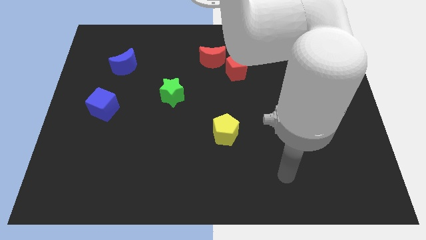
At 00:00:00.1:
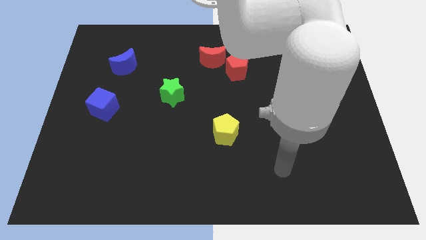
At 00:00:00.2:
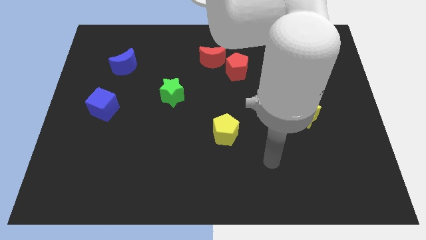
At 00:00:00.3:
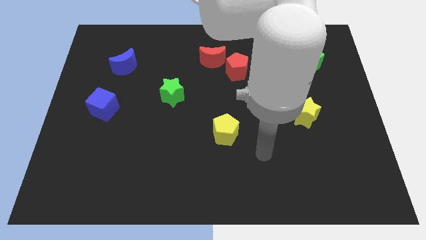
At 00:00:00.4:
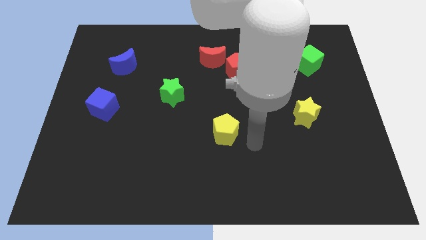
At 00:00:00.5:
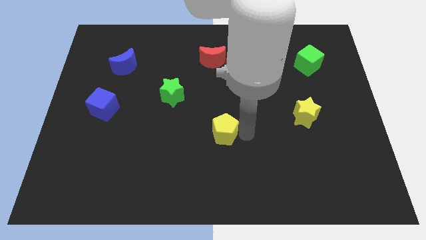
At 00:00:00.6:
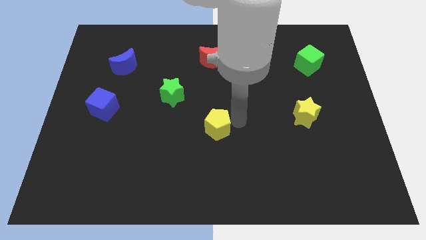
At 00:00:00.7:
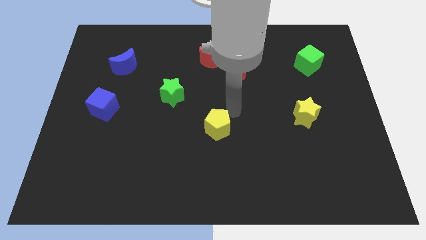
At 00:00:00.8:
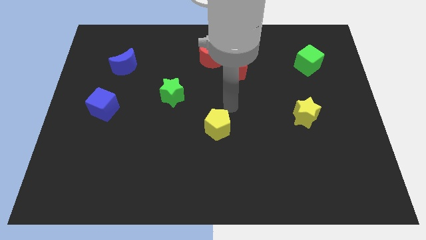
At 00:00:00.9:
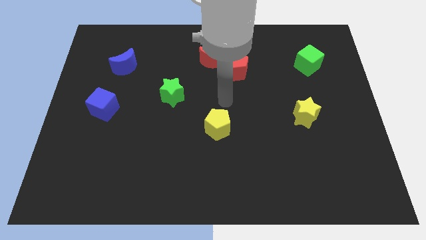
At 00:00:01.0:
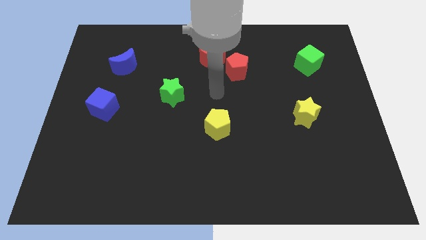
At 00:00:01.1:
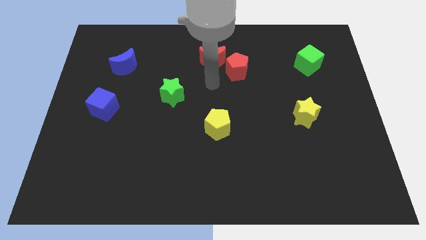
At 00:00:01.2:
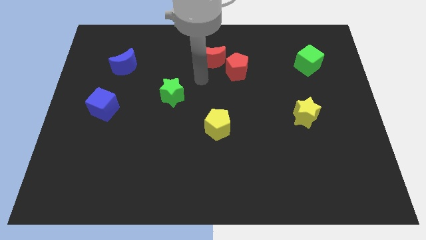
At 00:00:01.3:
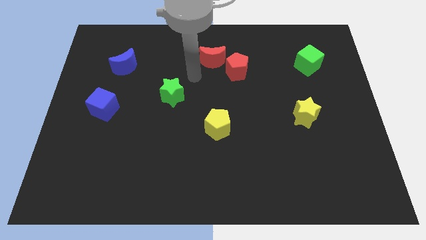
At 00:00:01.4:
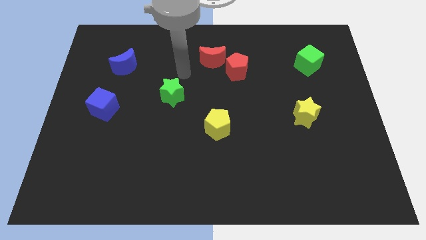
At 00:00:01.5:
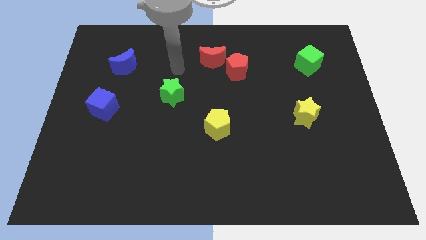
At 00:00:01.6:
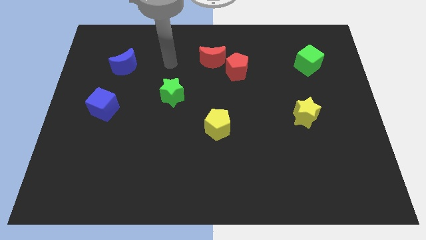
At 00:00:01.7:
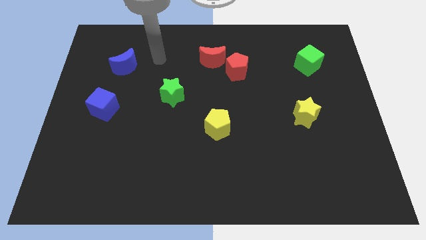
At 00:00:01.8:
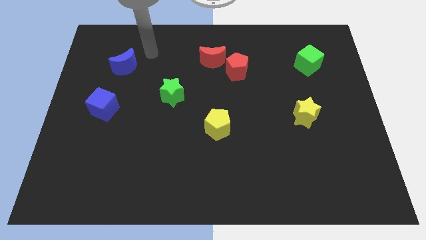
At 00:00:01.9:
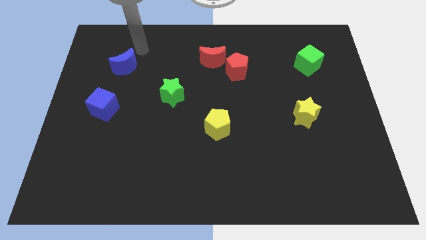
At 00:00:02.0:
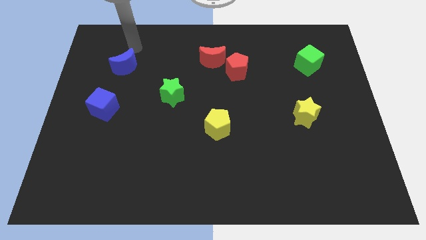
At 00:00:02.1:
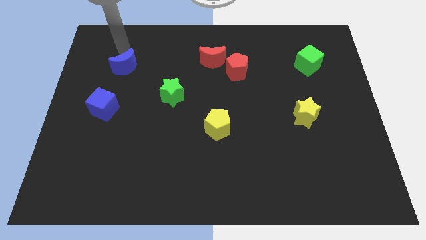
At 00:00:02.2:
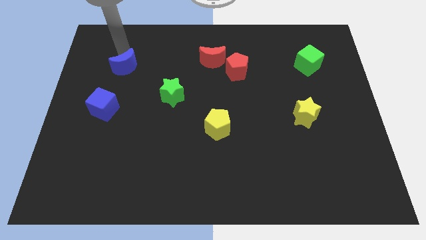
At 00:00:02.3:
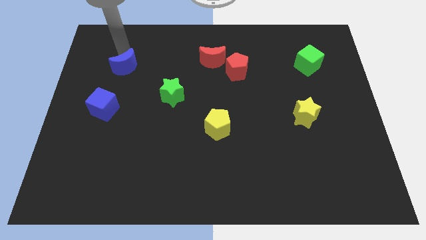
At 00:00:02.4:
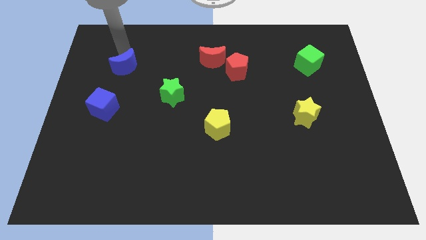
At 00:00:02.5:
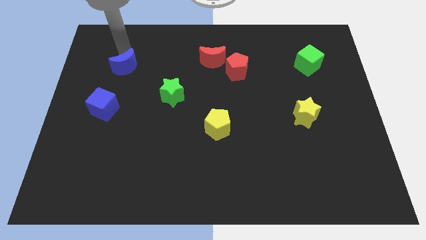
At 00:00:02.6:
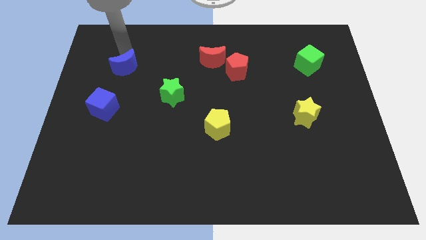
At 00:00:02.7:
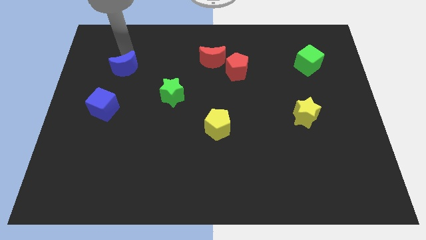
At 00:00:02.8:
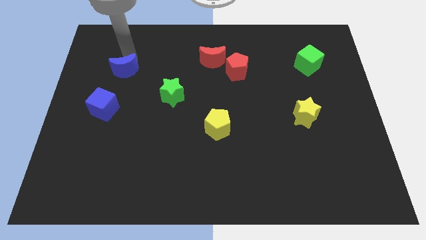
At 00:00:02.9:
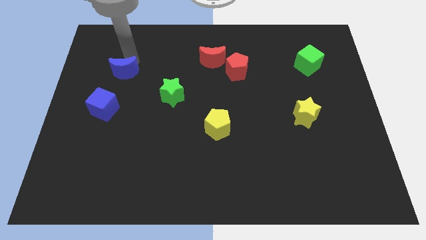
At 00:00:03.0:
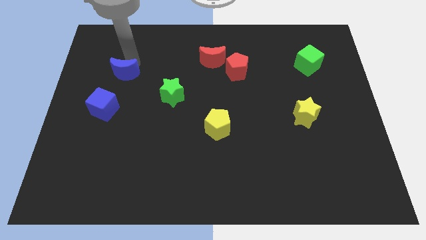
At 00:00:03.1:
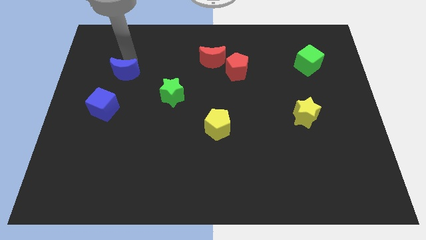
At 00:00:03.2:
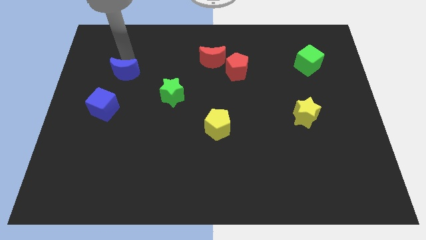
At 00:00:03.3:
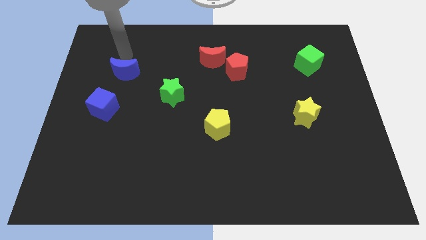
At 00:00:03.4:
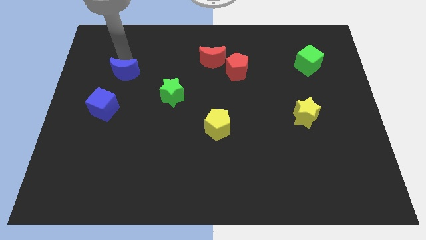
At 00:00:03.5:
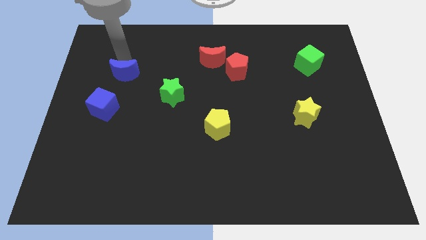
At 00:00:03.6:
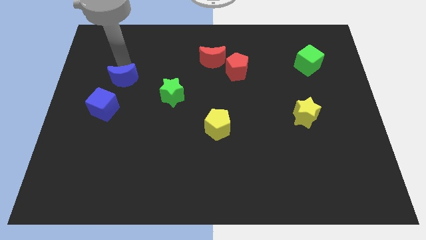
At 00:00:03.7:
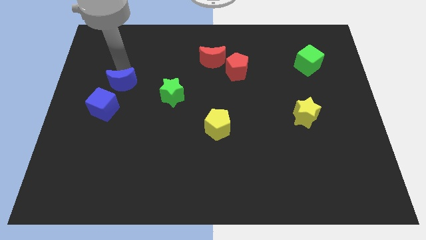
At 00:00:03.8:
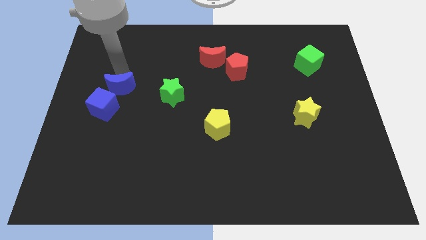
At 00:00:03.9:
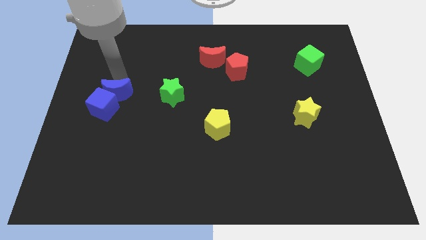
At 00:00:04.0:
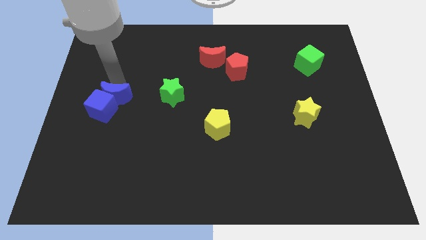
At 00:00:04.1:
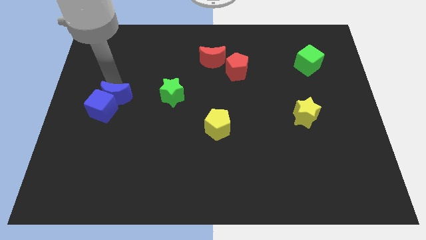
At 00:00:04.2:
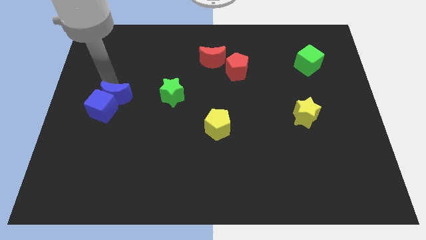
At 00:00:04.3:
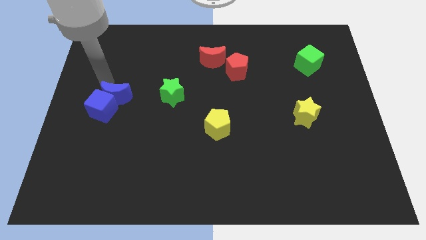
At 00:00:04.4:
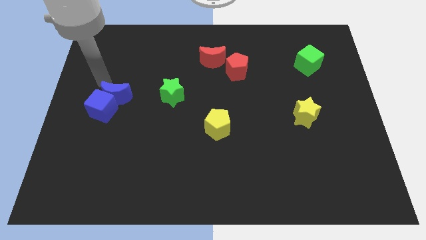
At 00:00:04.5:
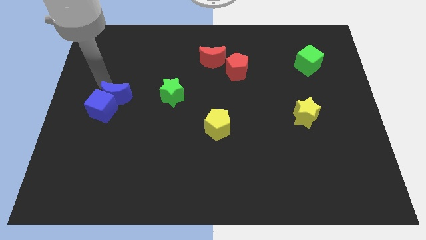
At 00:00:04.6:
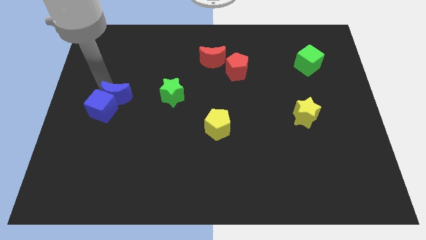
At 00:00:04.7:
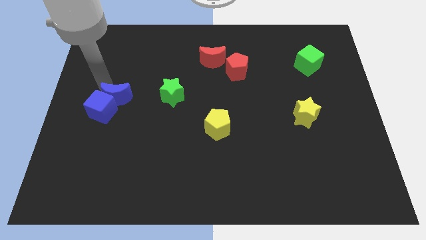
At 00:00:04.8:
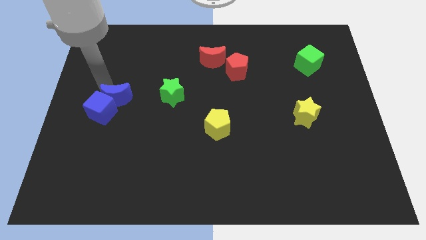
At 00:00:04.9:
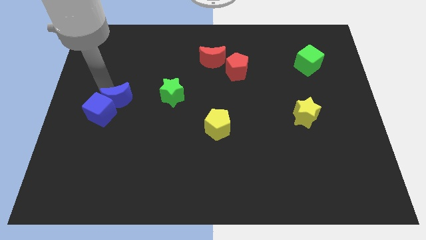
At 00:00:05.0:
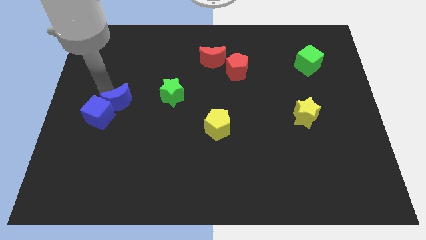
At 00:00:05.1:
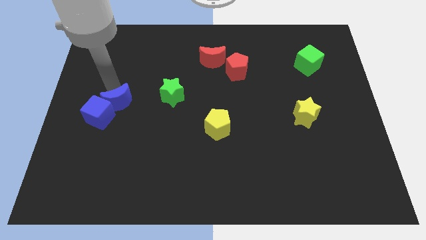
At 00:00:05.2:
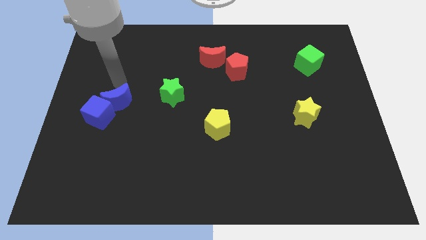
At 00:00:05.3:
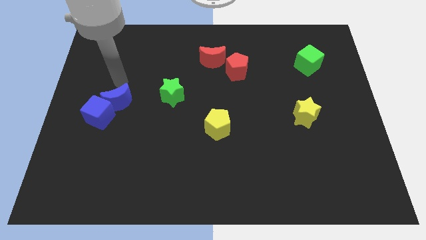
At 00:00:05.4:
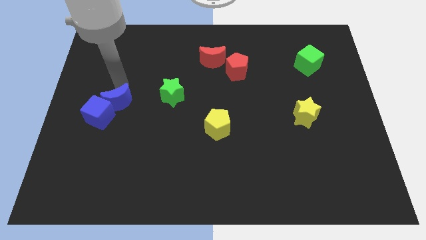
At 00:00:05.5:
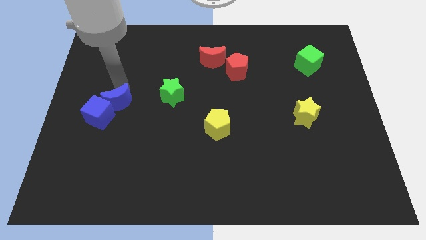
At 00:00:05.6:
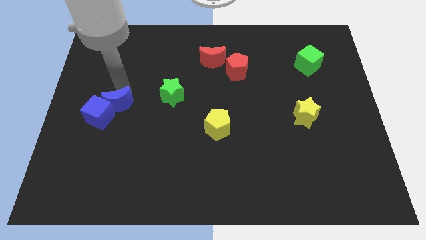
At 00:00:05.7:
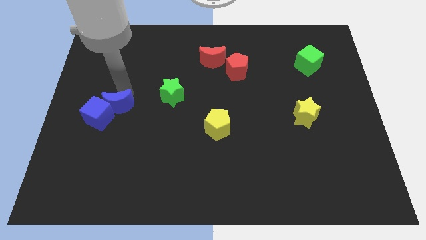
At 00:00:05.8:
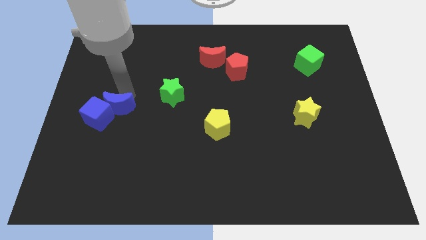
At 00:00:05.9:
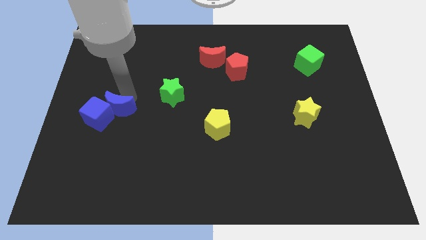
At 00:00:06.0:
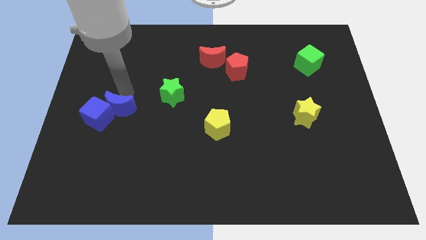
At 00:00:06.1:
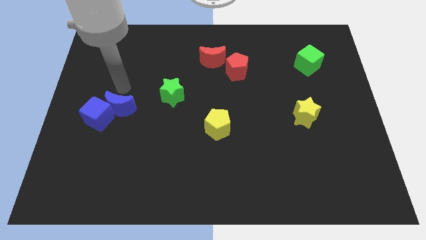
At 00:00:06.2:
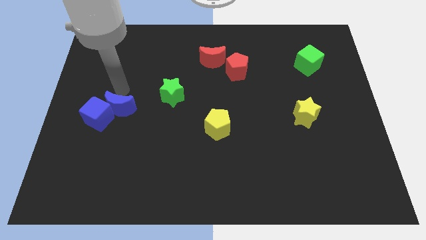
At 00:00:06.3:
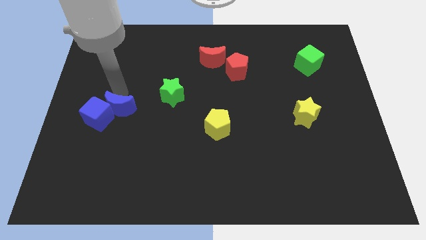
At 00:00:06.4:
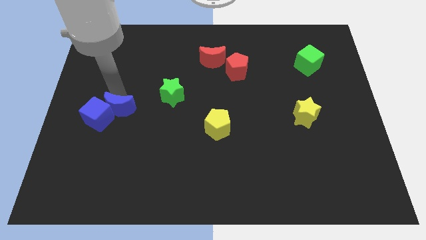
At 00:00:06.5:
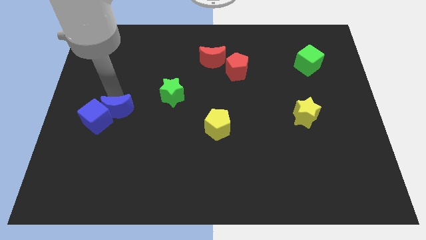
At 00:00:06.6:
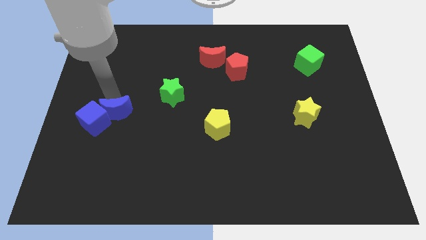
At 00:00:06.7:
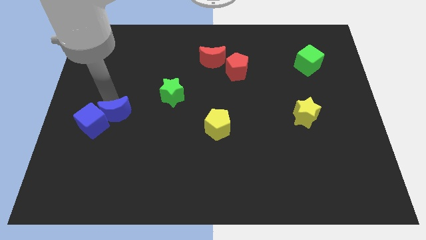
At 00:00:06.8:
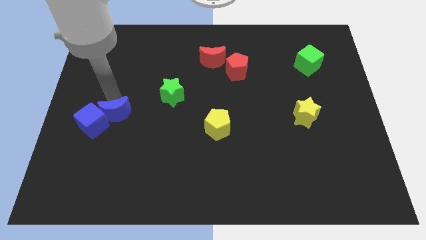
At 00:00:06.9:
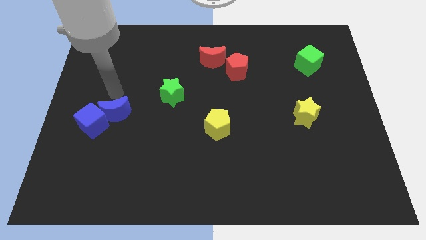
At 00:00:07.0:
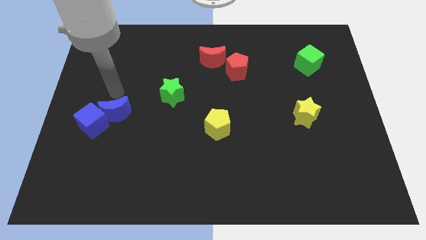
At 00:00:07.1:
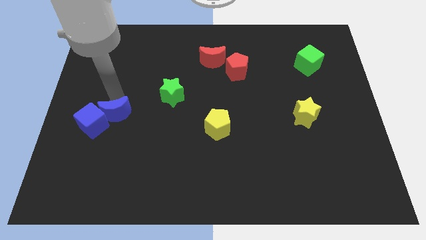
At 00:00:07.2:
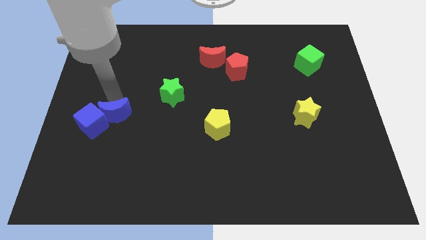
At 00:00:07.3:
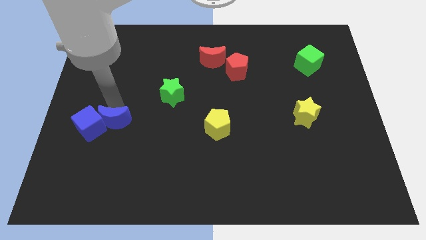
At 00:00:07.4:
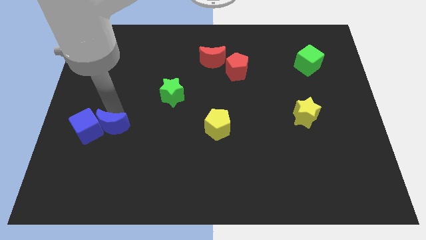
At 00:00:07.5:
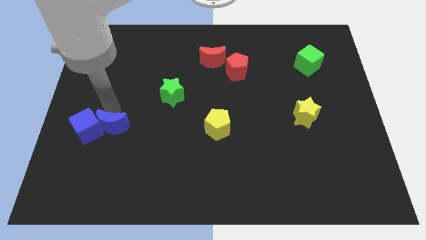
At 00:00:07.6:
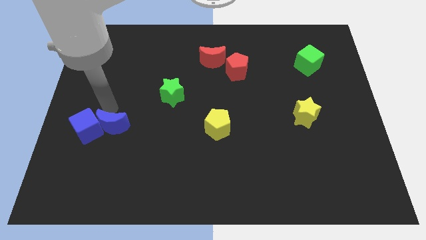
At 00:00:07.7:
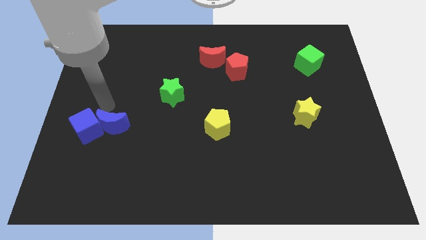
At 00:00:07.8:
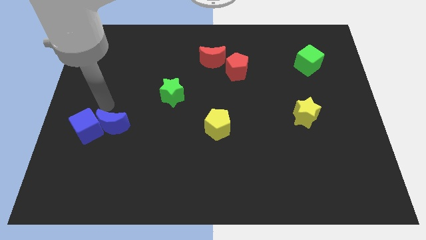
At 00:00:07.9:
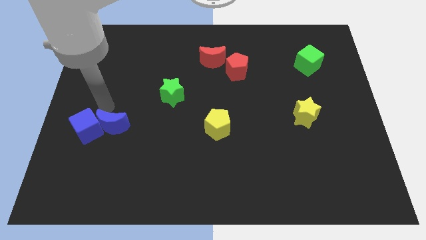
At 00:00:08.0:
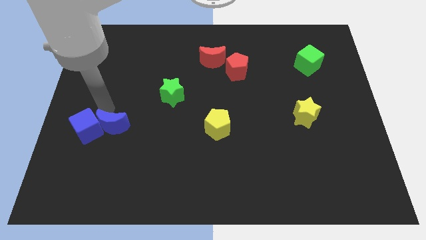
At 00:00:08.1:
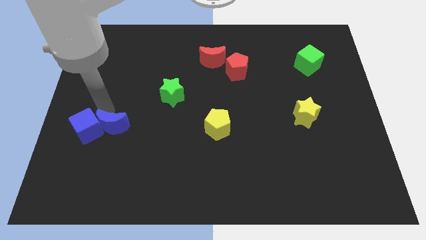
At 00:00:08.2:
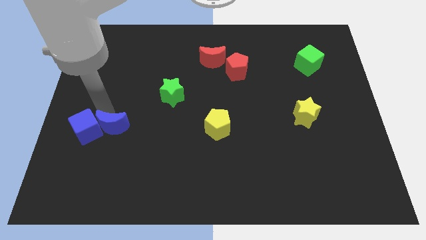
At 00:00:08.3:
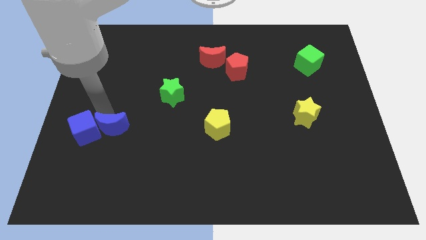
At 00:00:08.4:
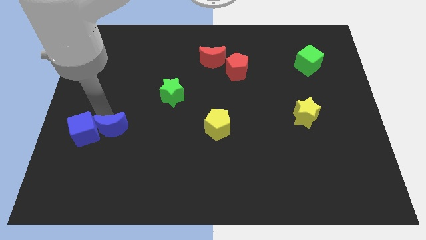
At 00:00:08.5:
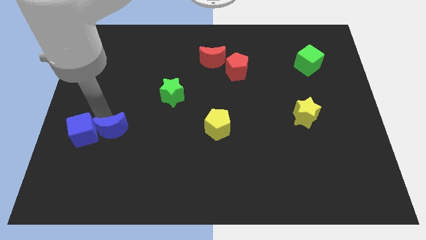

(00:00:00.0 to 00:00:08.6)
push the blue moon downwards

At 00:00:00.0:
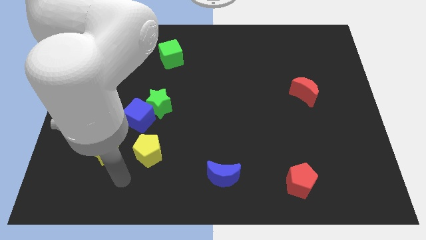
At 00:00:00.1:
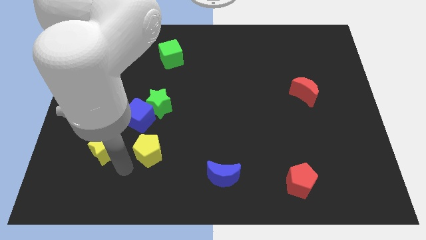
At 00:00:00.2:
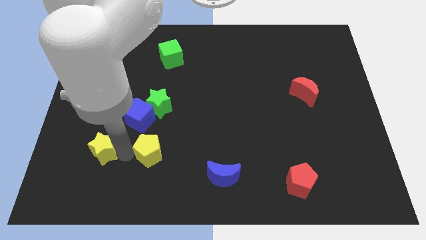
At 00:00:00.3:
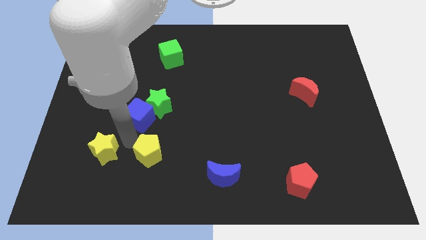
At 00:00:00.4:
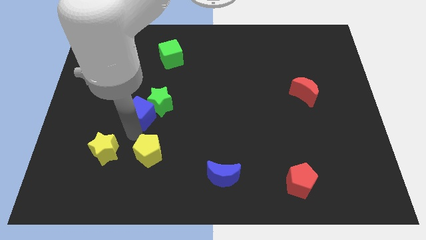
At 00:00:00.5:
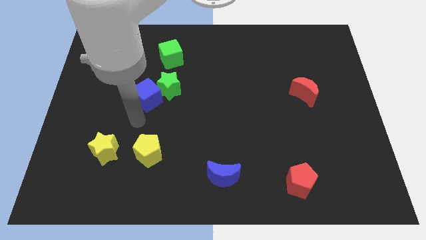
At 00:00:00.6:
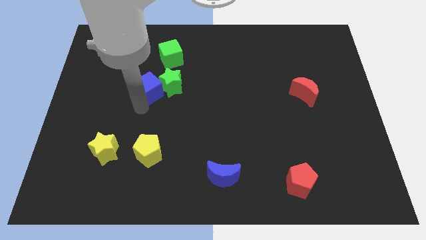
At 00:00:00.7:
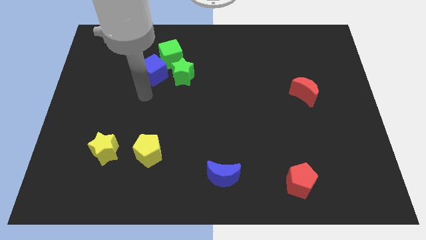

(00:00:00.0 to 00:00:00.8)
push the green star a little up and then right
